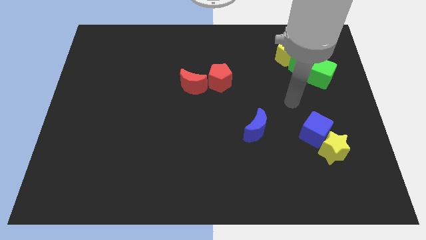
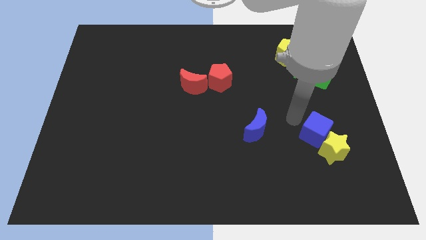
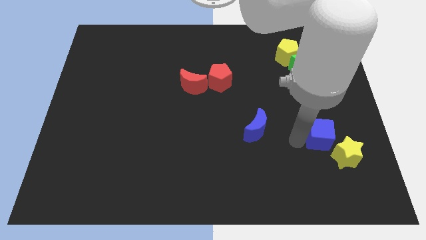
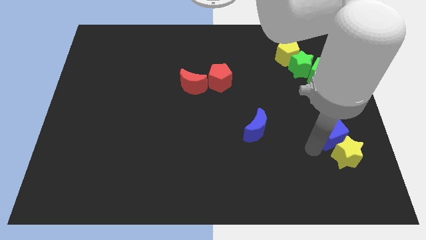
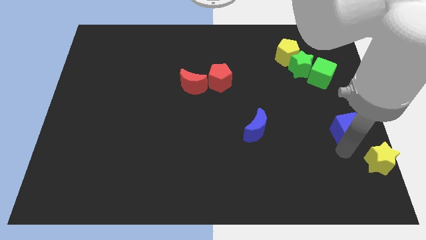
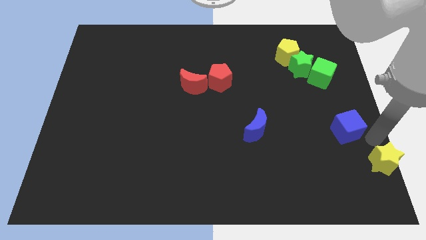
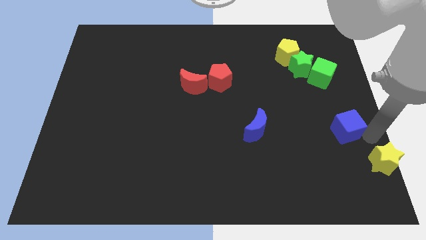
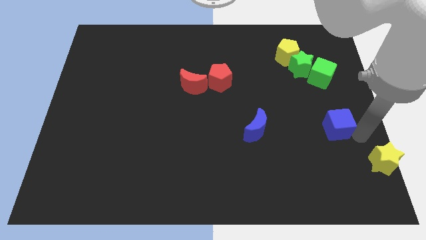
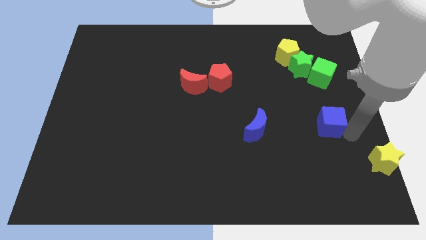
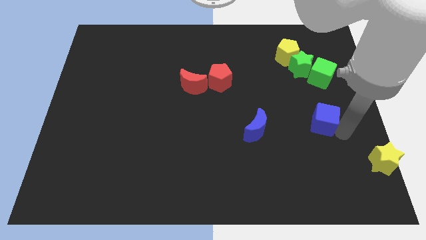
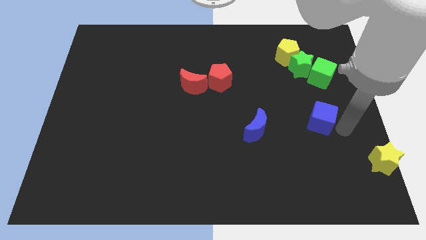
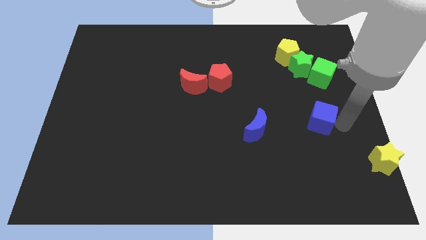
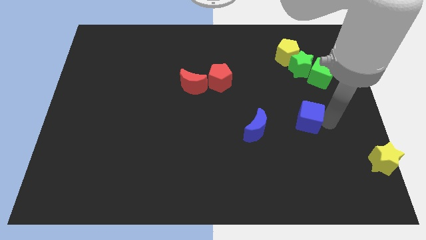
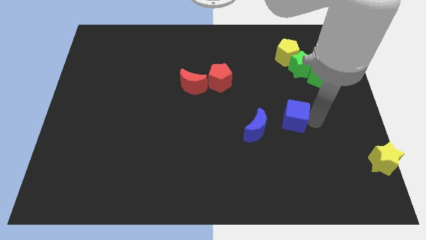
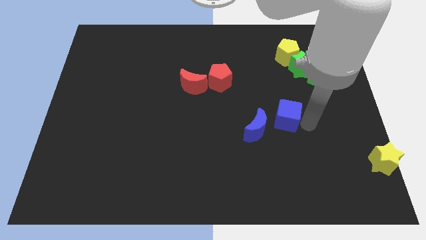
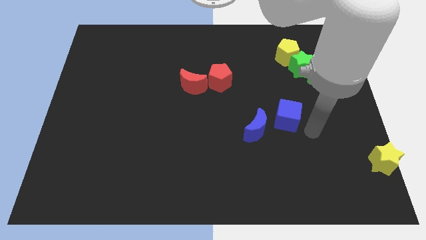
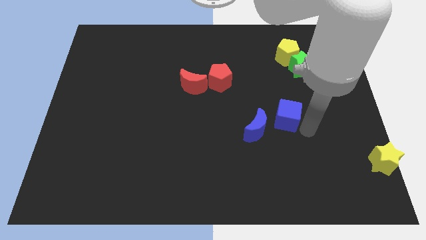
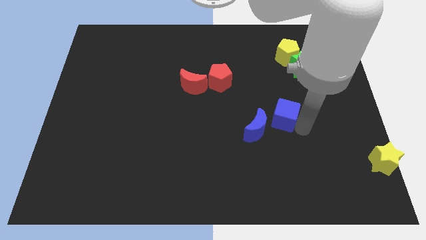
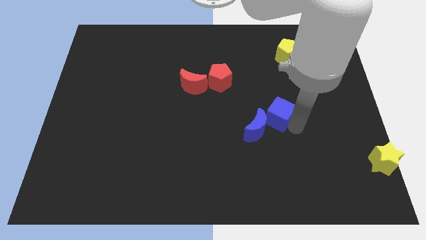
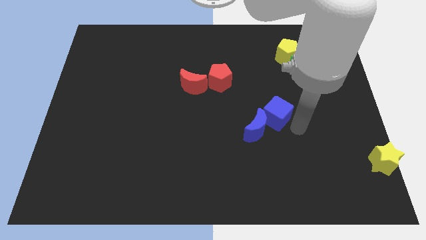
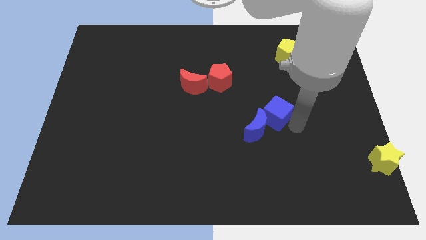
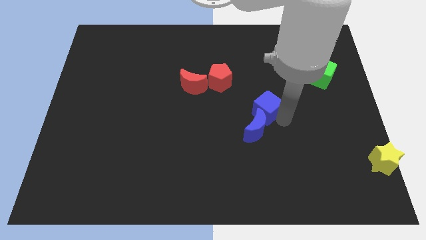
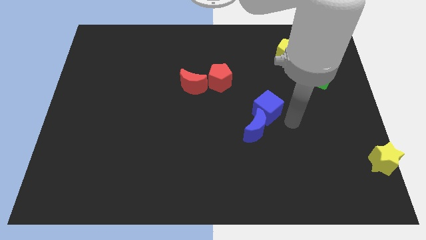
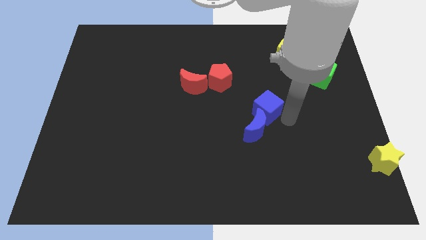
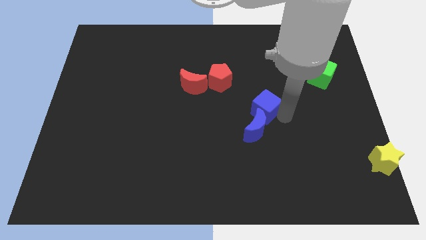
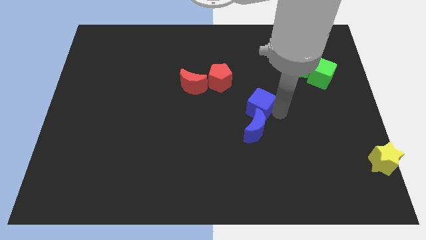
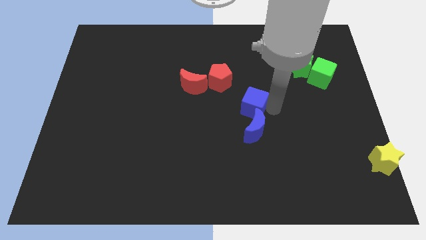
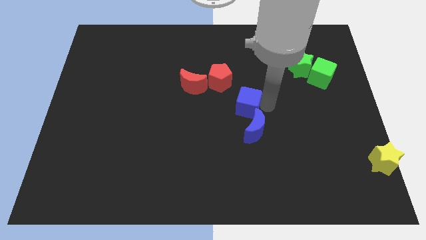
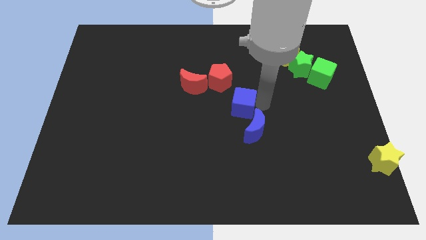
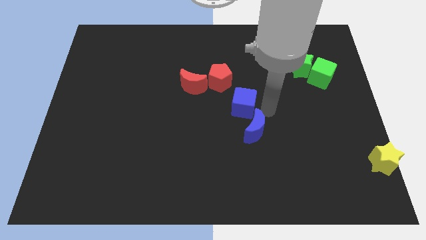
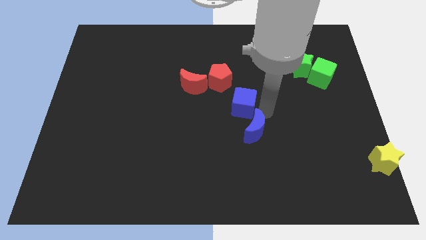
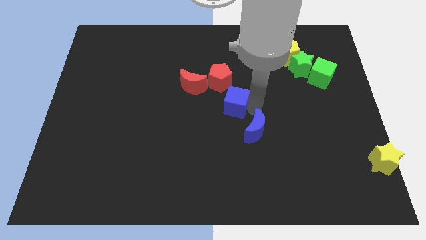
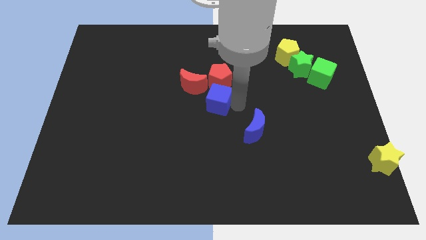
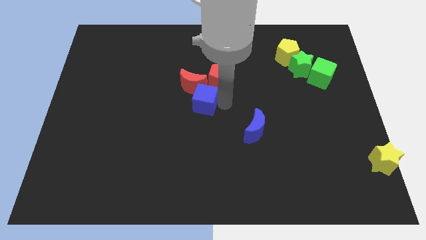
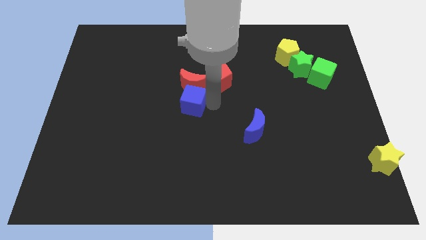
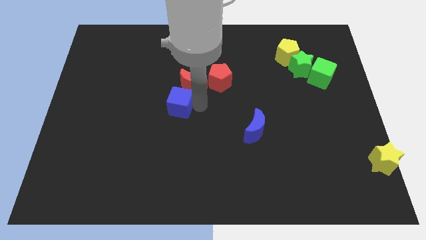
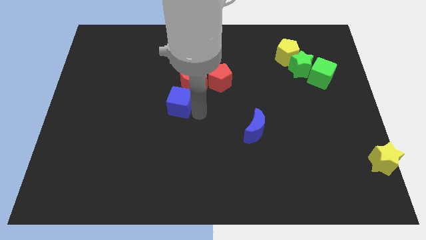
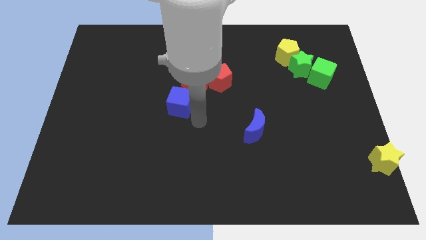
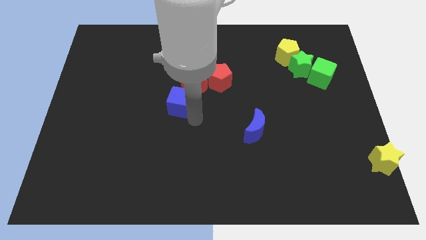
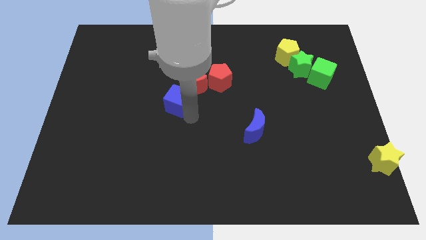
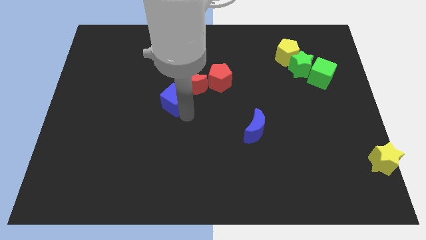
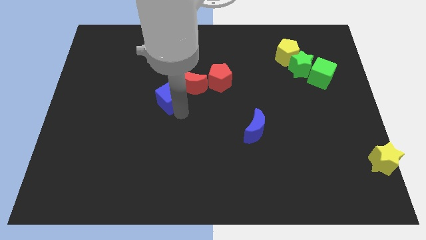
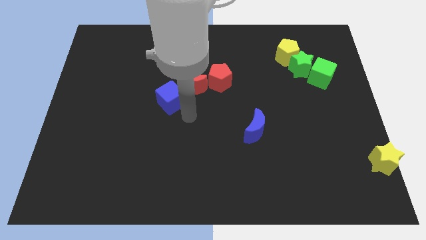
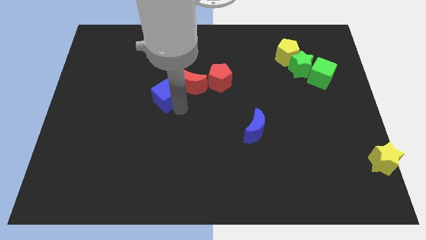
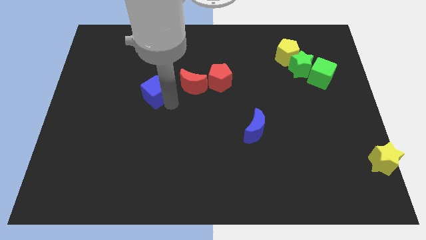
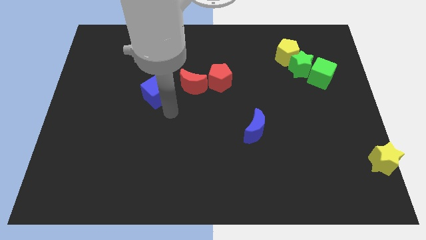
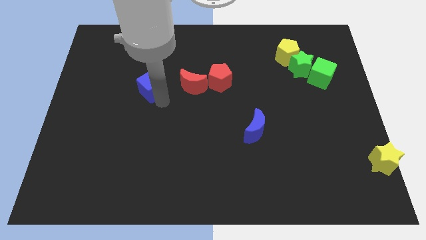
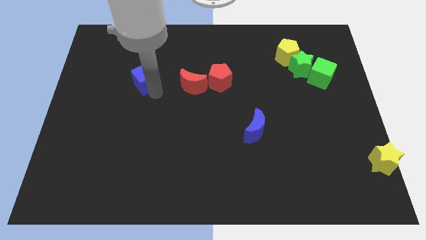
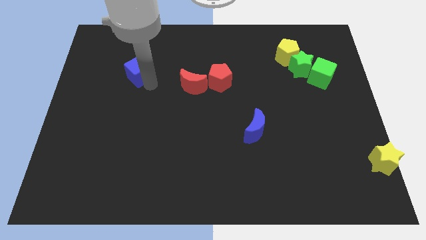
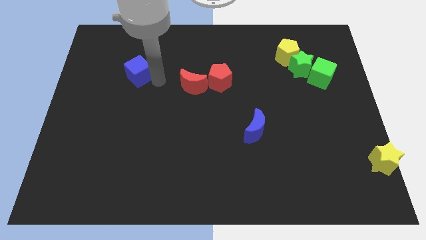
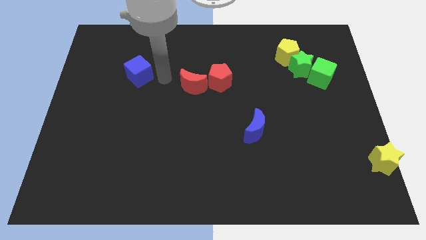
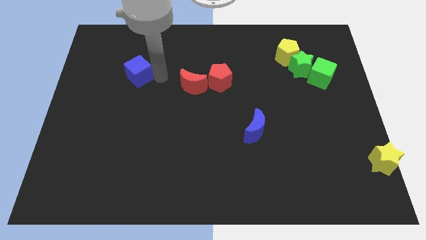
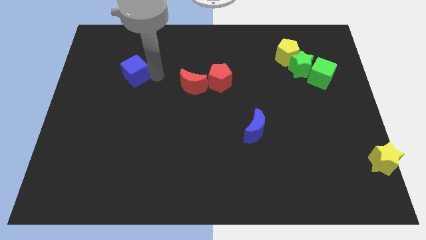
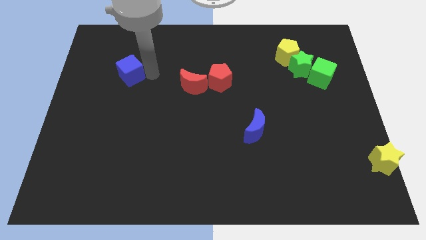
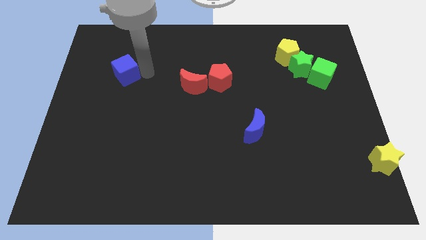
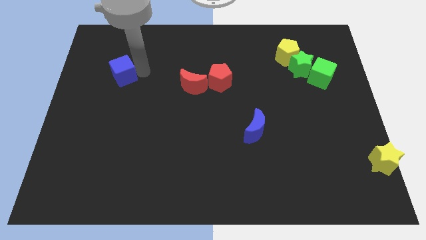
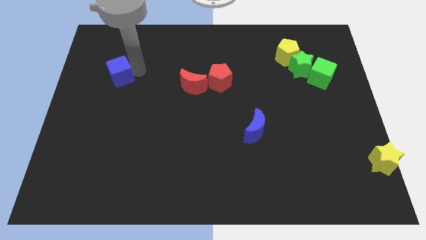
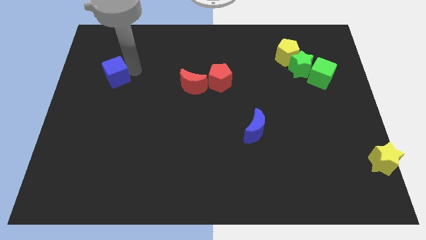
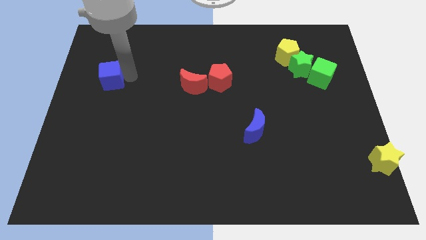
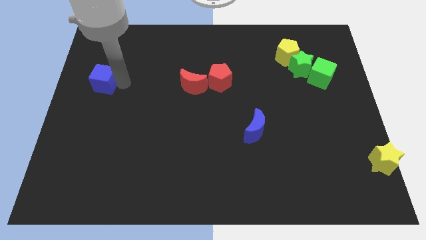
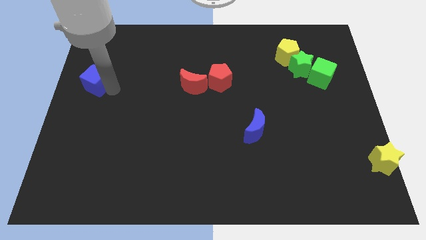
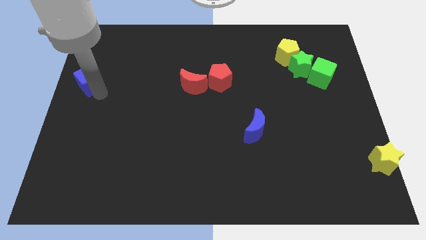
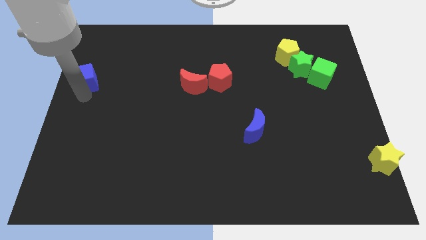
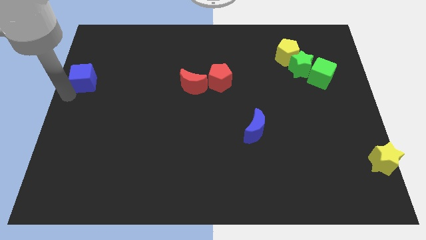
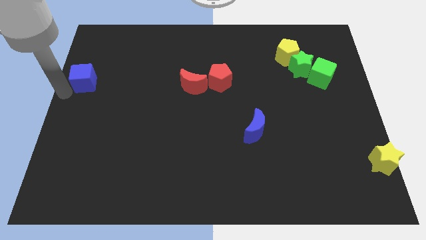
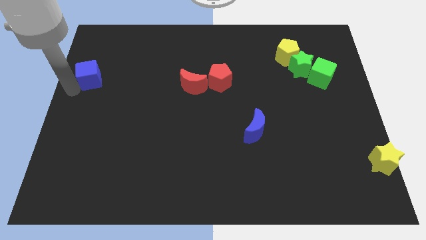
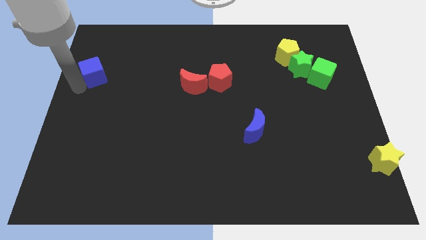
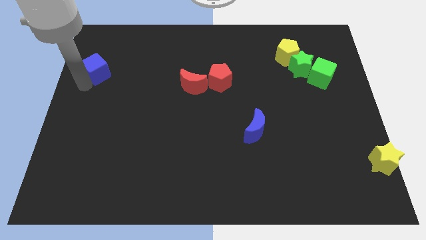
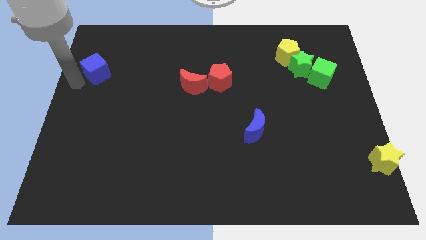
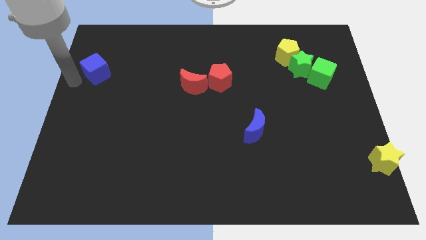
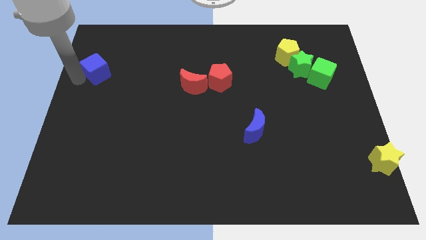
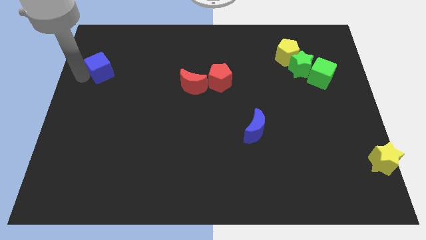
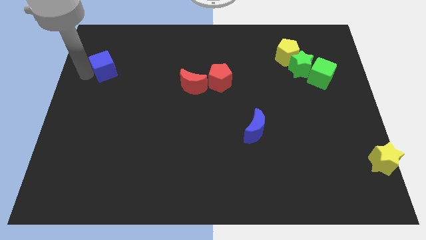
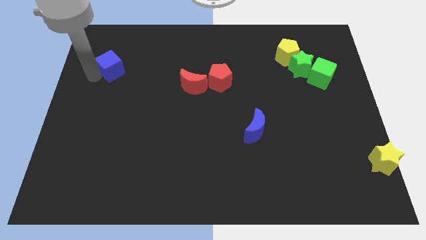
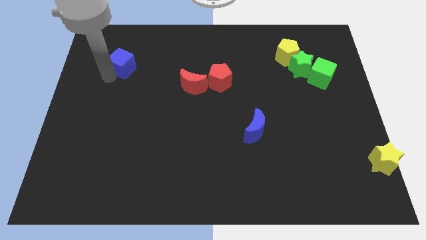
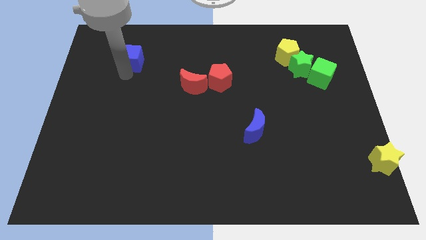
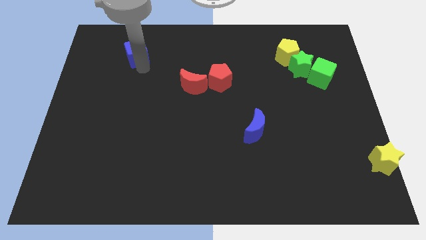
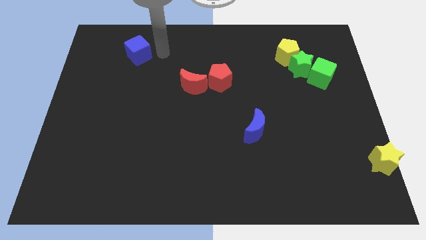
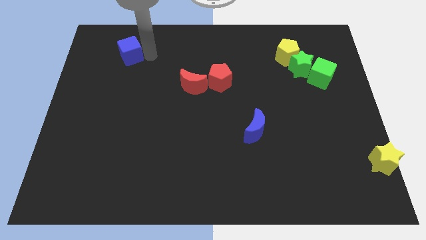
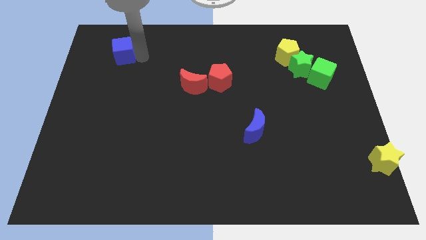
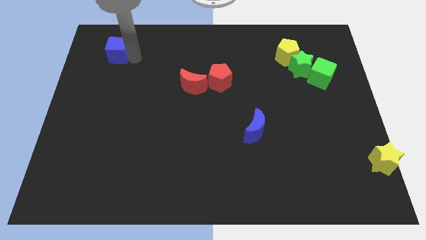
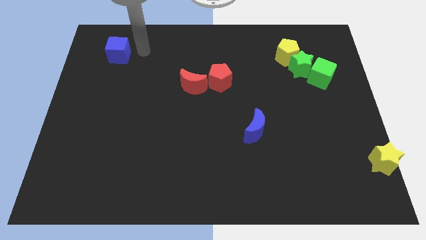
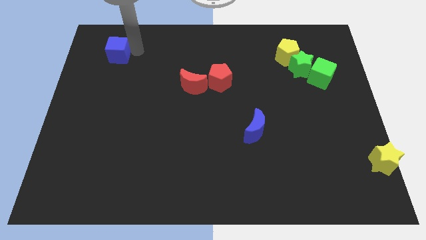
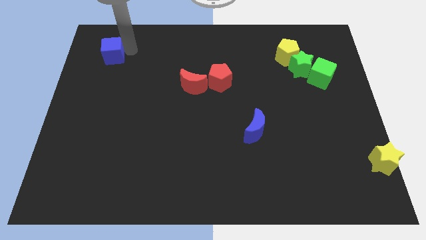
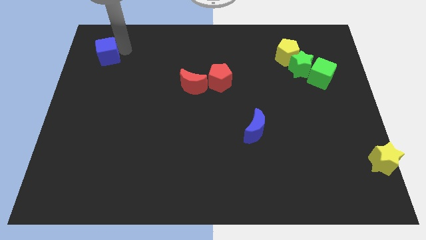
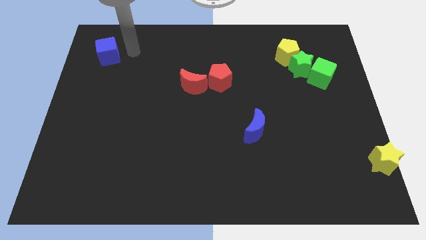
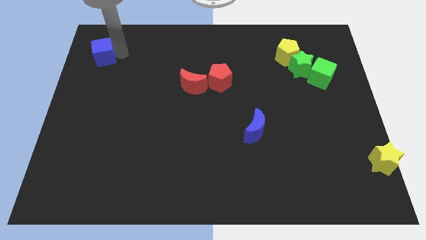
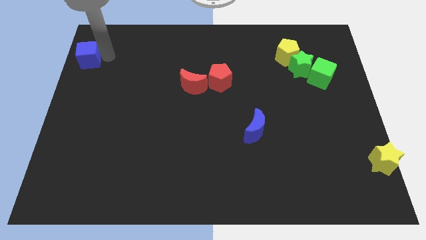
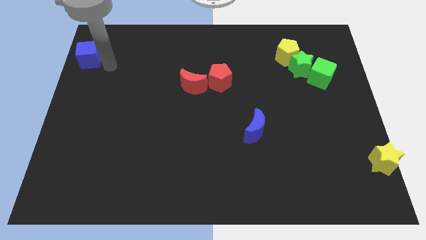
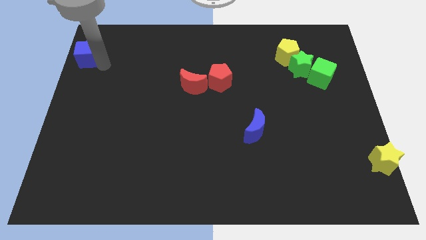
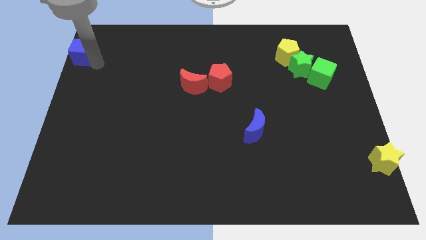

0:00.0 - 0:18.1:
push the blue cube to the upper left corner
